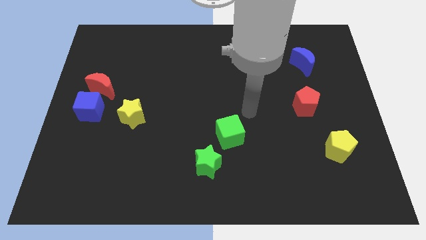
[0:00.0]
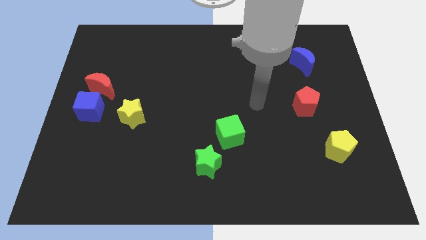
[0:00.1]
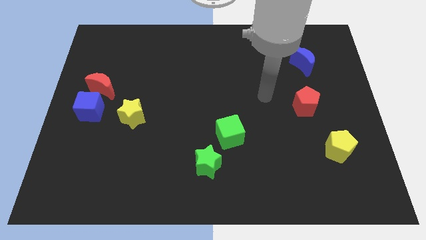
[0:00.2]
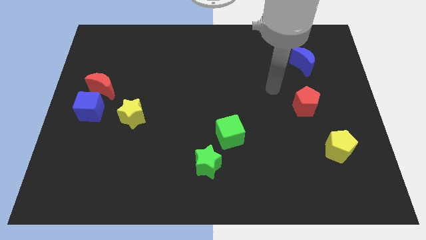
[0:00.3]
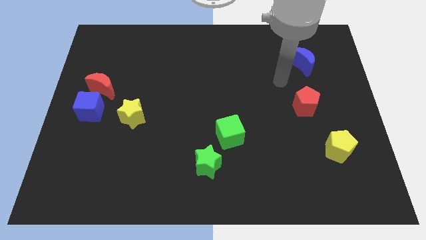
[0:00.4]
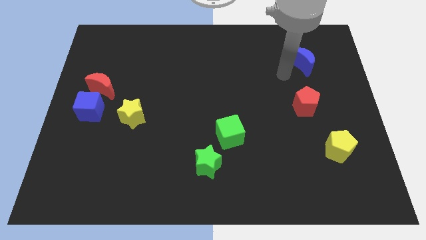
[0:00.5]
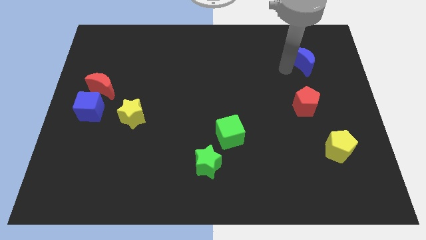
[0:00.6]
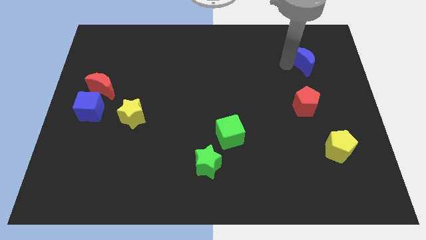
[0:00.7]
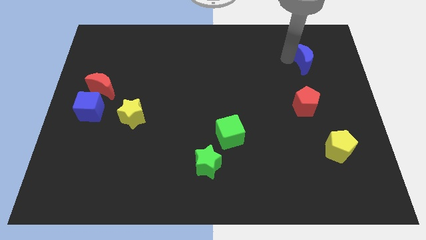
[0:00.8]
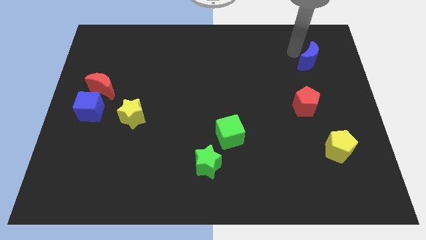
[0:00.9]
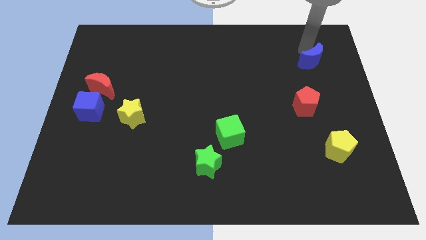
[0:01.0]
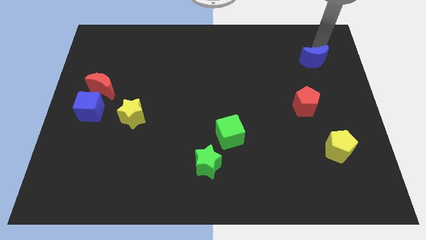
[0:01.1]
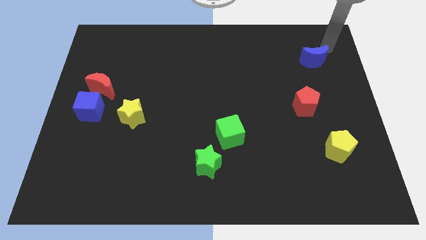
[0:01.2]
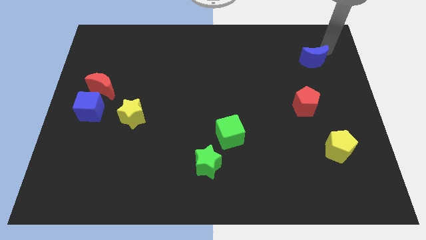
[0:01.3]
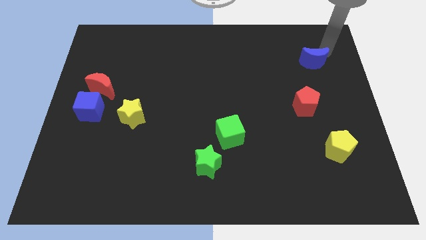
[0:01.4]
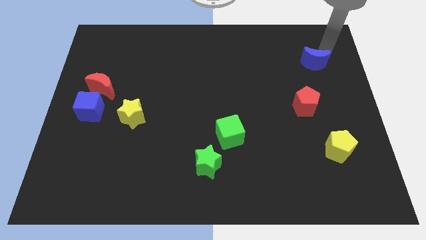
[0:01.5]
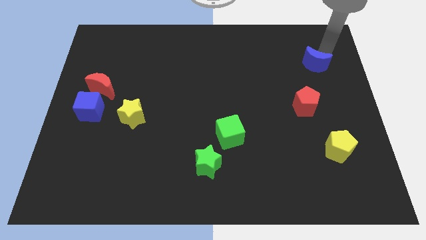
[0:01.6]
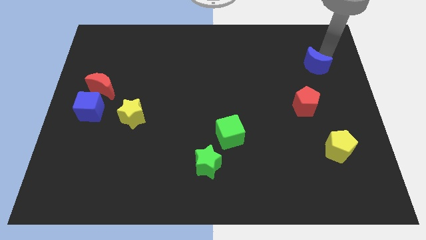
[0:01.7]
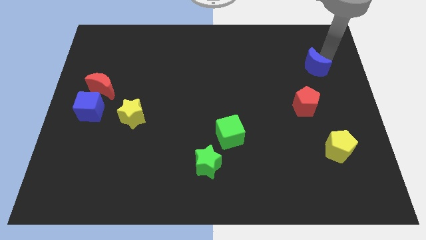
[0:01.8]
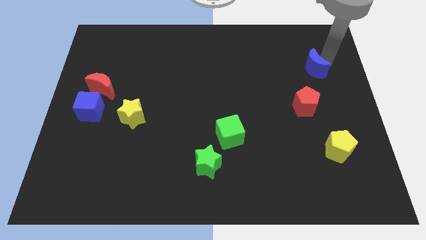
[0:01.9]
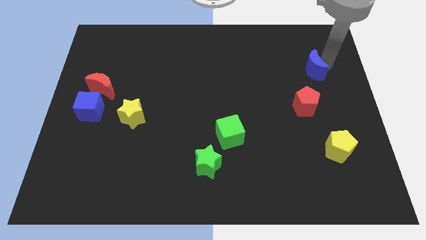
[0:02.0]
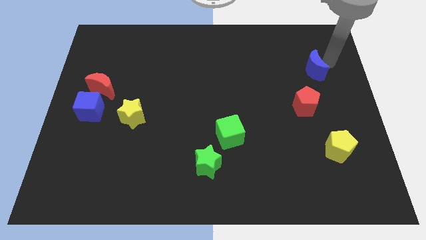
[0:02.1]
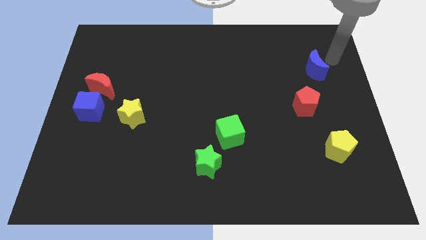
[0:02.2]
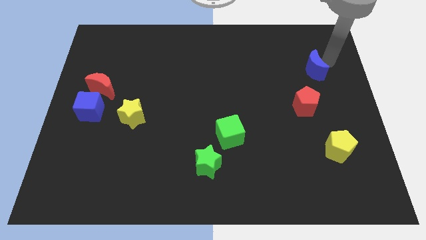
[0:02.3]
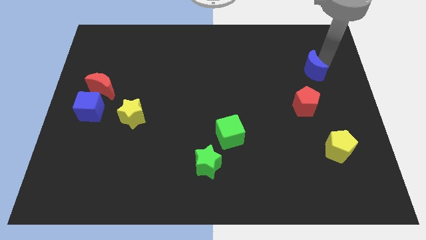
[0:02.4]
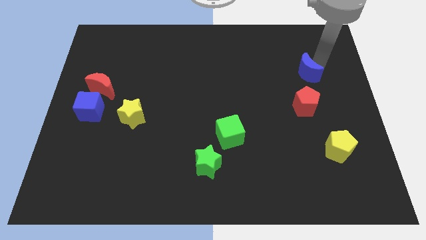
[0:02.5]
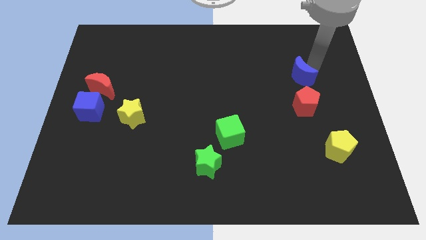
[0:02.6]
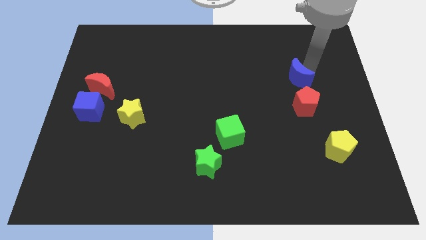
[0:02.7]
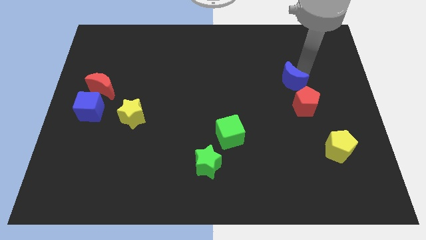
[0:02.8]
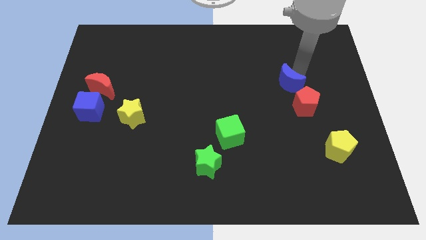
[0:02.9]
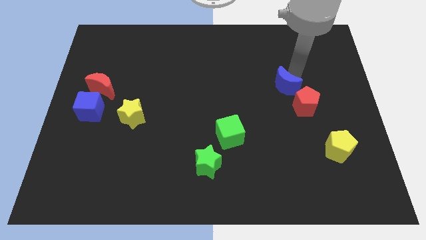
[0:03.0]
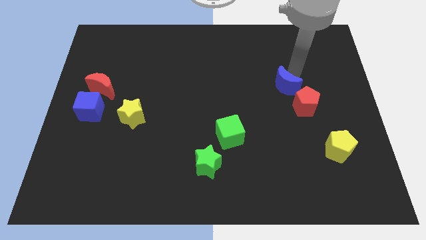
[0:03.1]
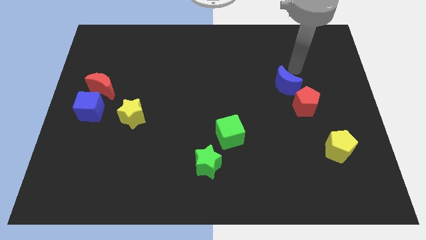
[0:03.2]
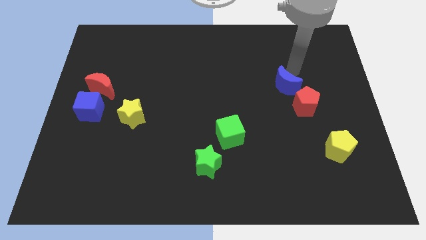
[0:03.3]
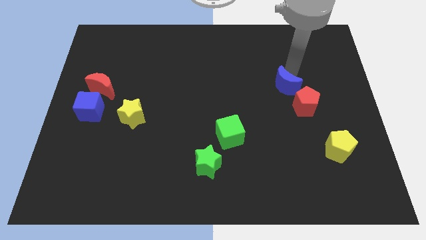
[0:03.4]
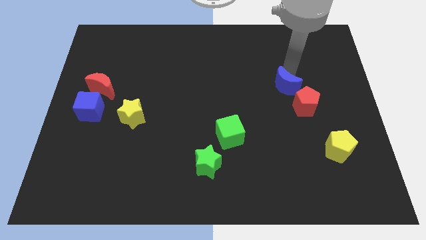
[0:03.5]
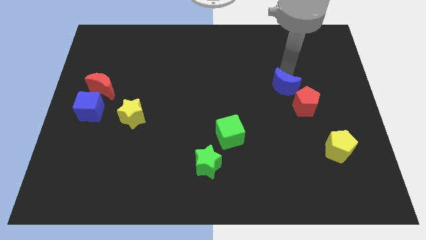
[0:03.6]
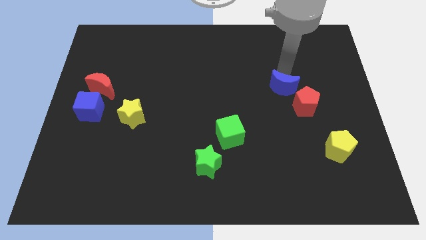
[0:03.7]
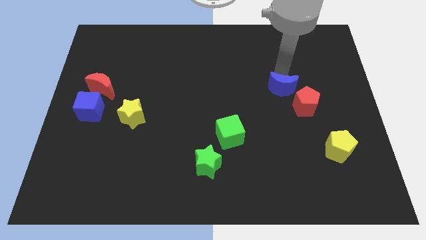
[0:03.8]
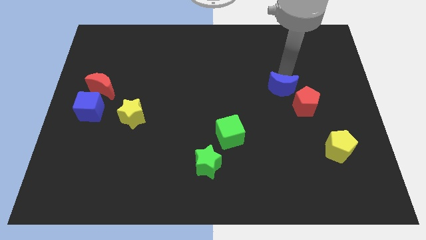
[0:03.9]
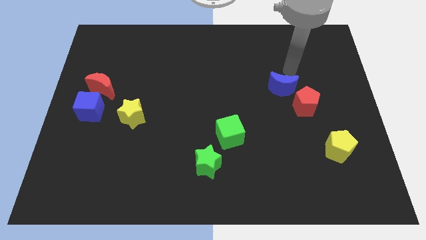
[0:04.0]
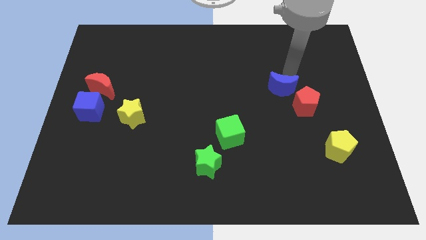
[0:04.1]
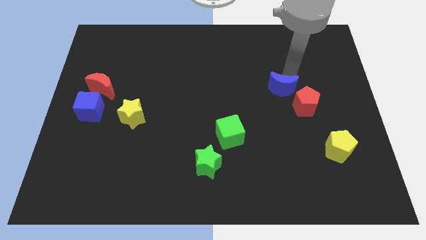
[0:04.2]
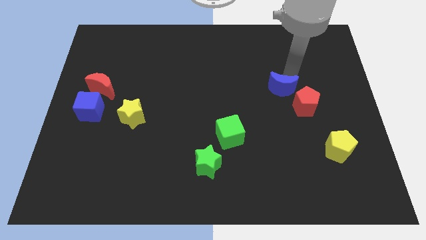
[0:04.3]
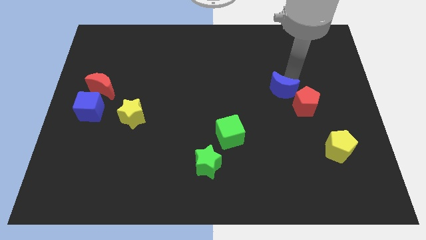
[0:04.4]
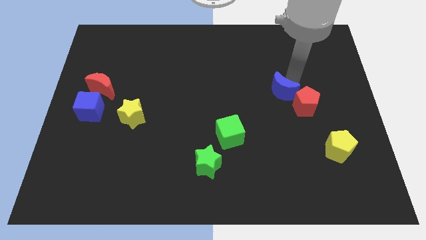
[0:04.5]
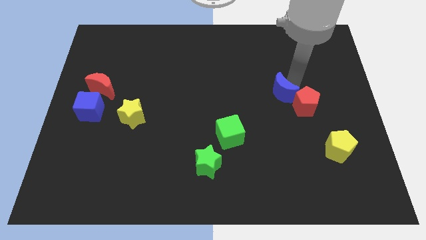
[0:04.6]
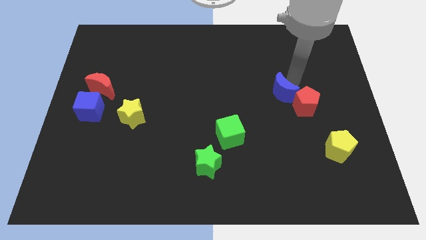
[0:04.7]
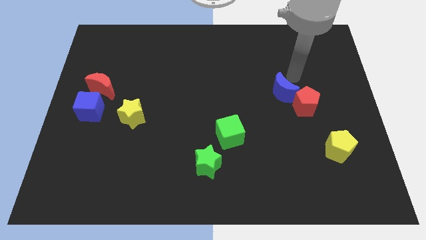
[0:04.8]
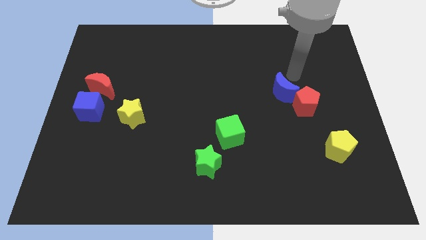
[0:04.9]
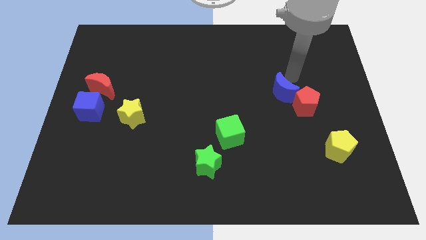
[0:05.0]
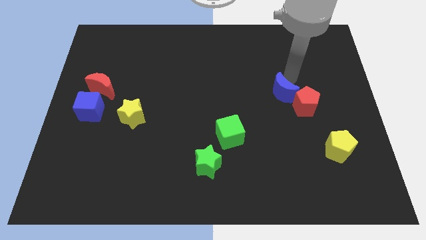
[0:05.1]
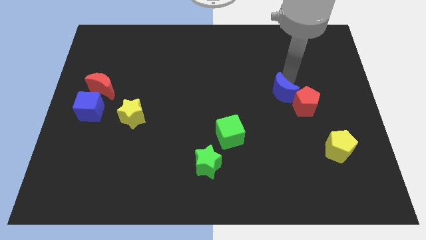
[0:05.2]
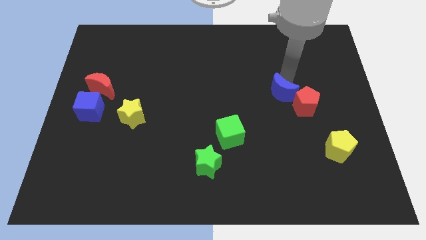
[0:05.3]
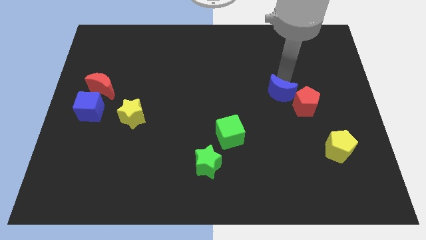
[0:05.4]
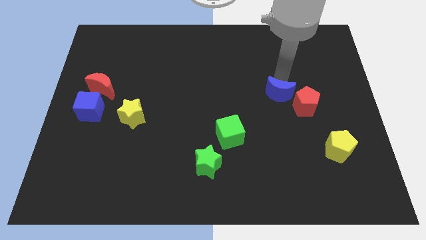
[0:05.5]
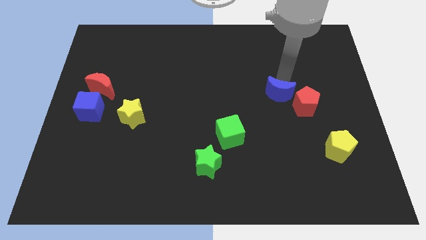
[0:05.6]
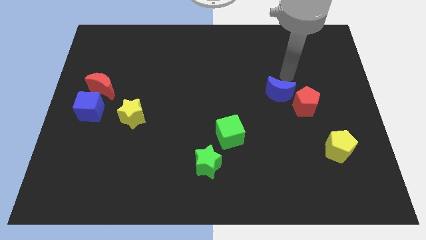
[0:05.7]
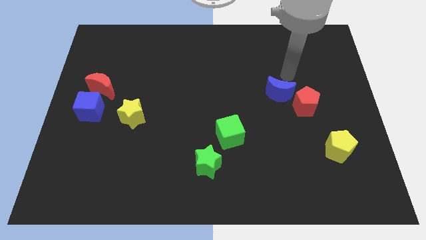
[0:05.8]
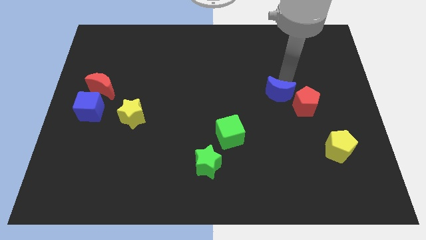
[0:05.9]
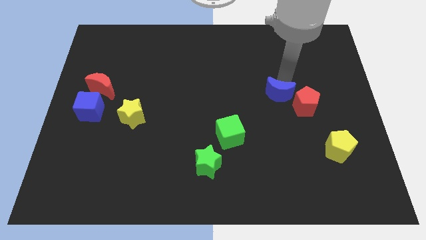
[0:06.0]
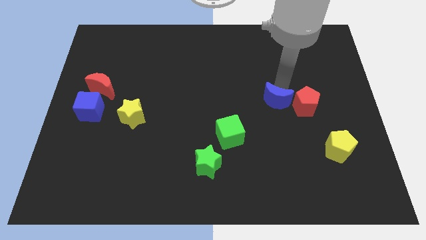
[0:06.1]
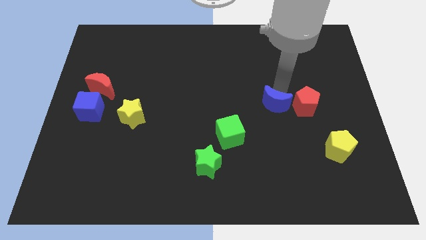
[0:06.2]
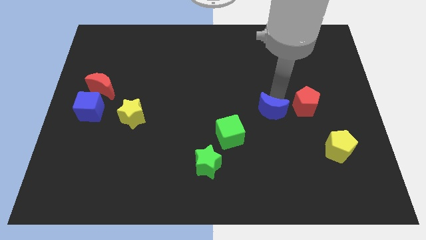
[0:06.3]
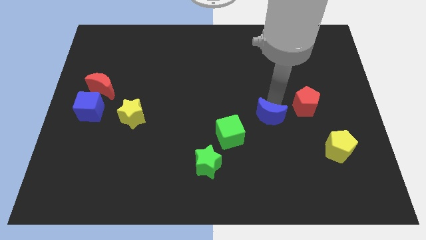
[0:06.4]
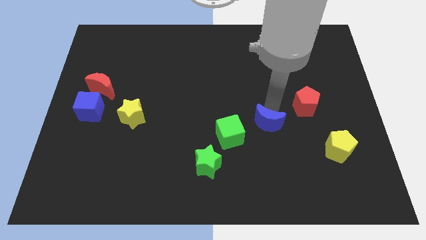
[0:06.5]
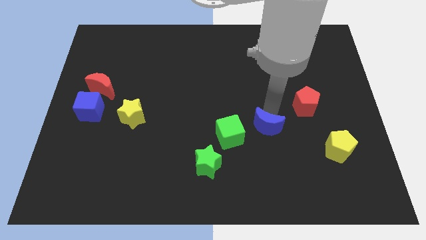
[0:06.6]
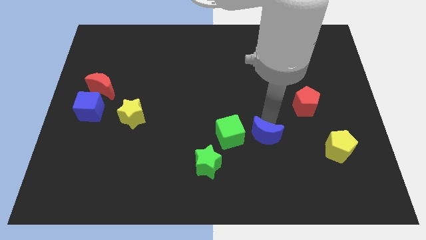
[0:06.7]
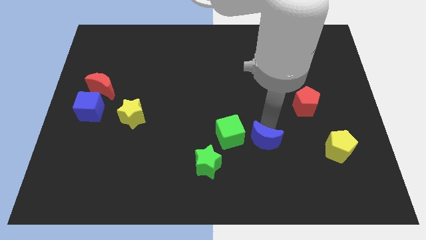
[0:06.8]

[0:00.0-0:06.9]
push the blue moon diagonally down and to the right of the green cube

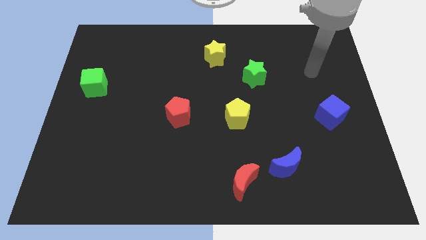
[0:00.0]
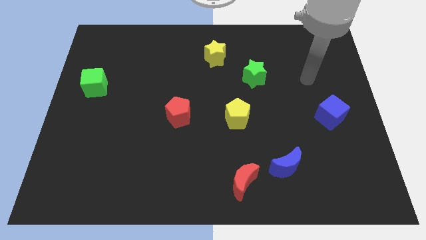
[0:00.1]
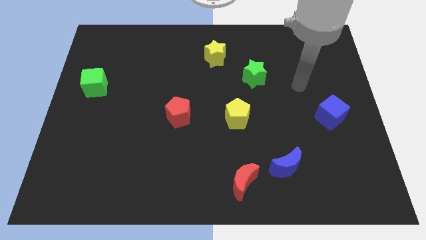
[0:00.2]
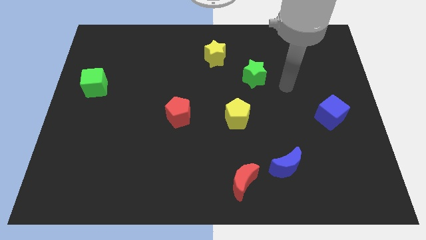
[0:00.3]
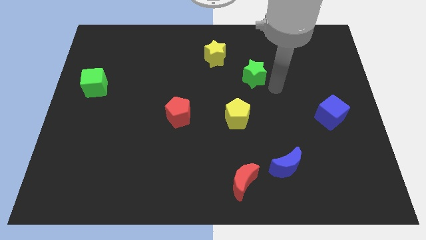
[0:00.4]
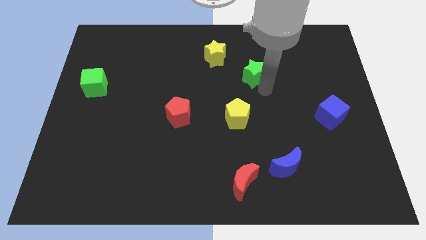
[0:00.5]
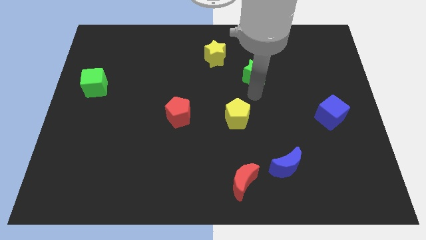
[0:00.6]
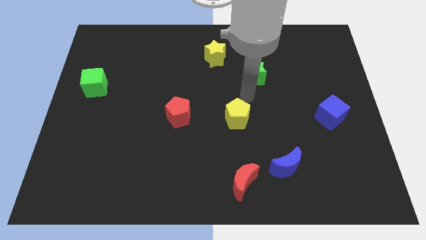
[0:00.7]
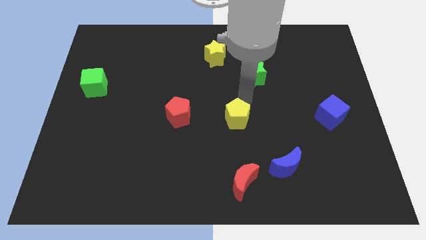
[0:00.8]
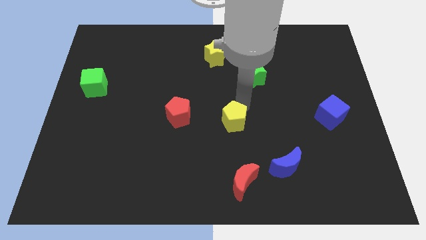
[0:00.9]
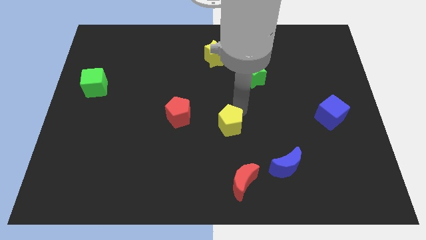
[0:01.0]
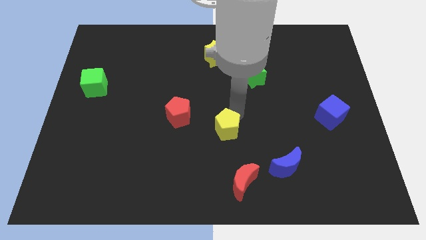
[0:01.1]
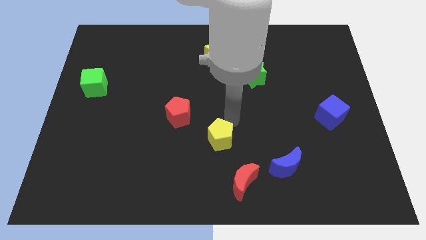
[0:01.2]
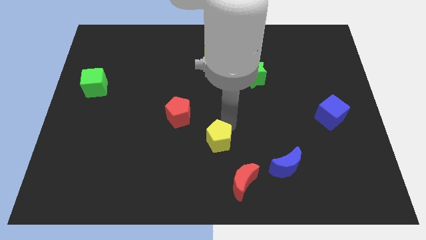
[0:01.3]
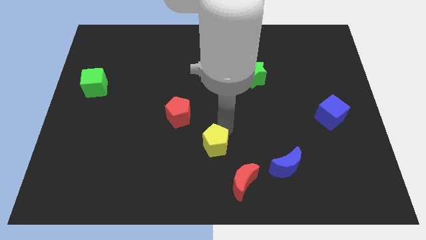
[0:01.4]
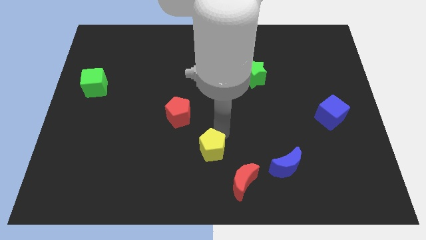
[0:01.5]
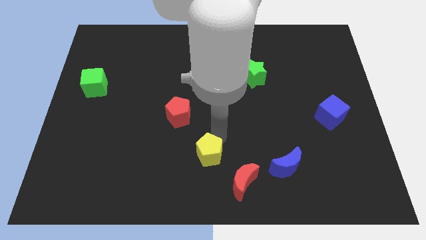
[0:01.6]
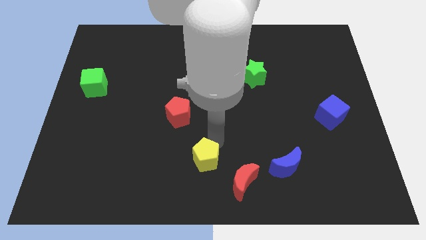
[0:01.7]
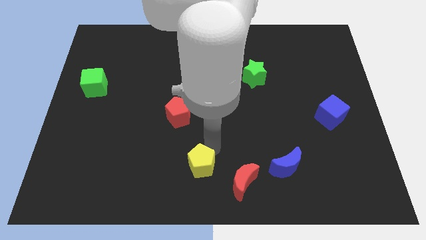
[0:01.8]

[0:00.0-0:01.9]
put the yellow pentagon just left of the red moon
